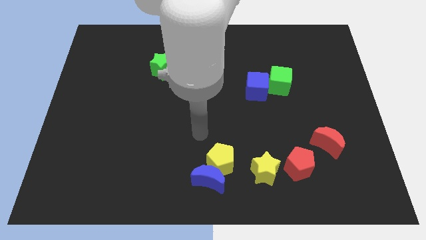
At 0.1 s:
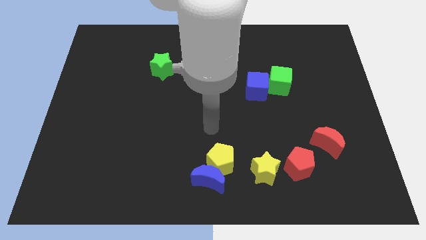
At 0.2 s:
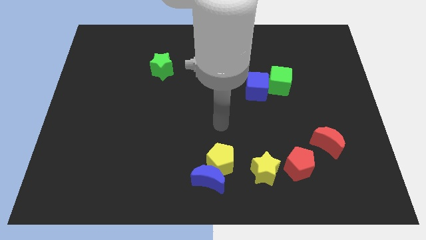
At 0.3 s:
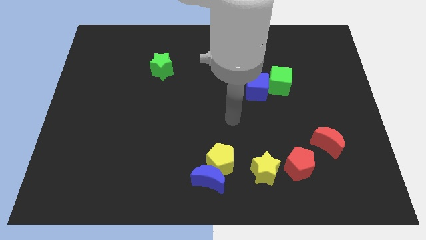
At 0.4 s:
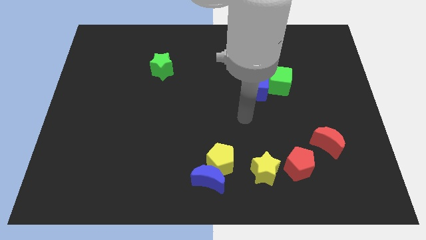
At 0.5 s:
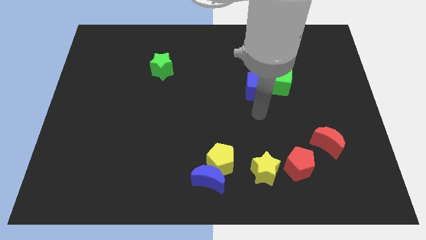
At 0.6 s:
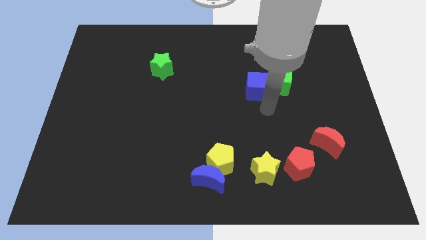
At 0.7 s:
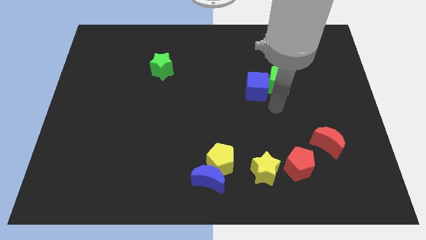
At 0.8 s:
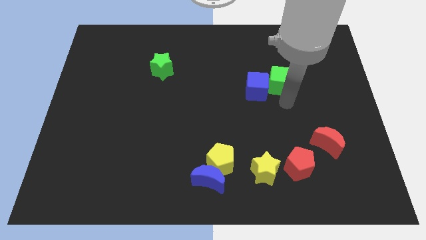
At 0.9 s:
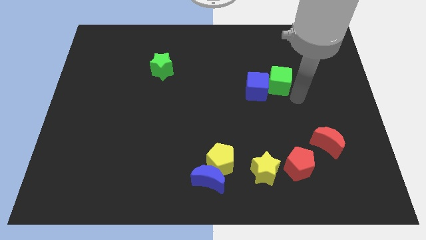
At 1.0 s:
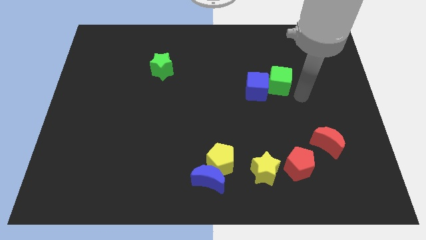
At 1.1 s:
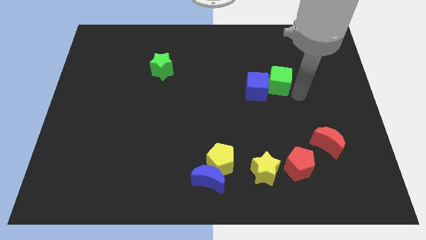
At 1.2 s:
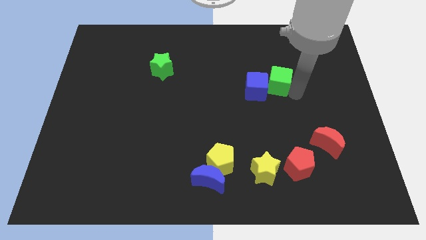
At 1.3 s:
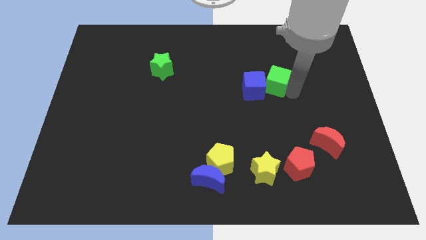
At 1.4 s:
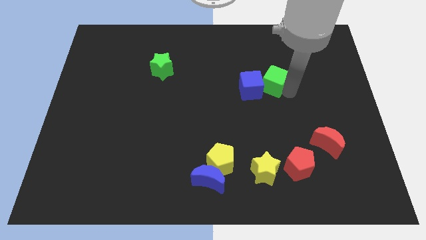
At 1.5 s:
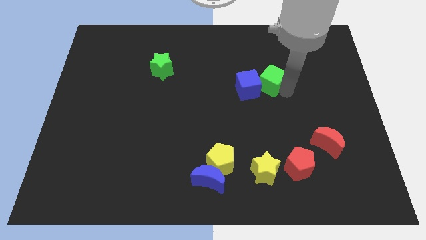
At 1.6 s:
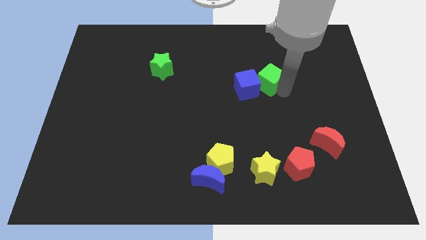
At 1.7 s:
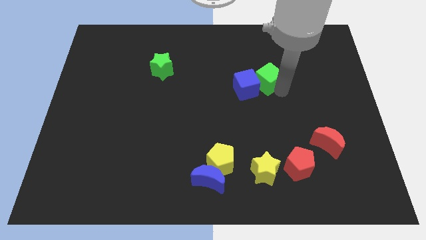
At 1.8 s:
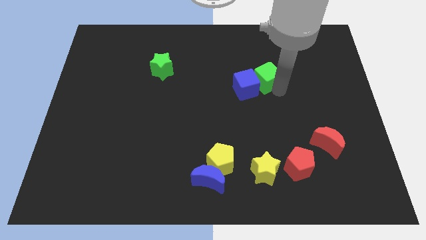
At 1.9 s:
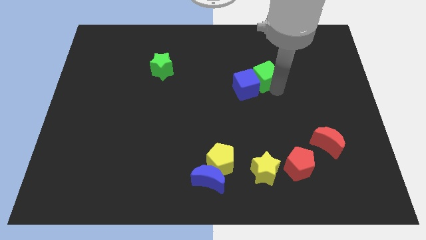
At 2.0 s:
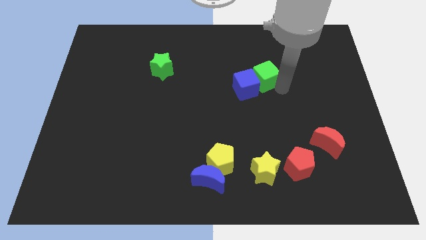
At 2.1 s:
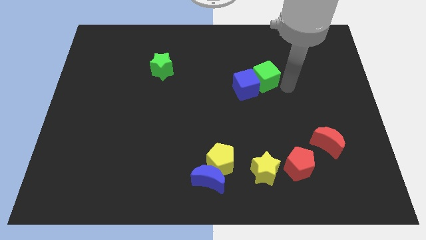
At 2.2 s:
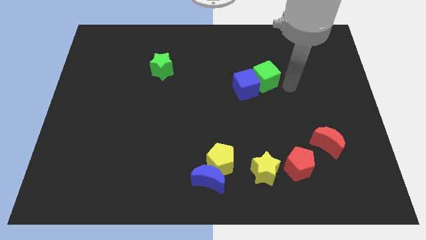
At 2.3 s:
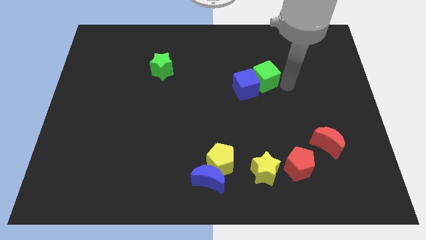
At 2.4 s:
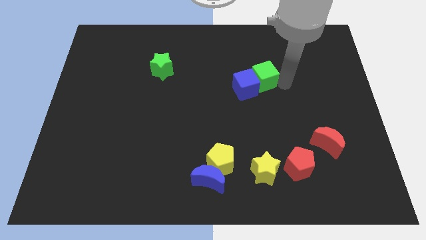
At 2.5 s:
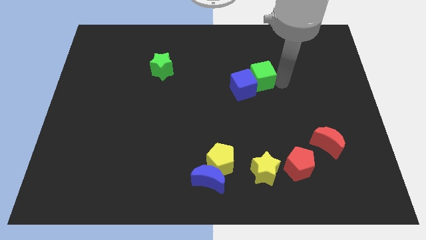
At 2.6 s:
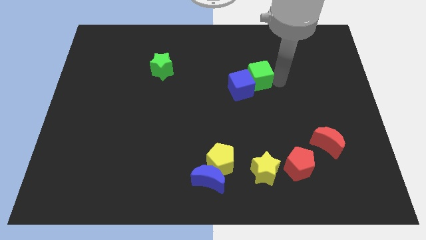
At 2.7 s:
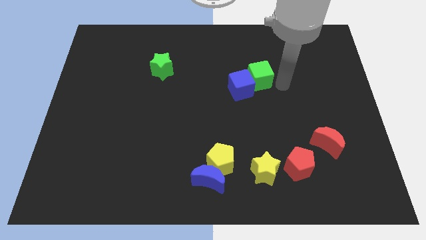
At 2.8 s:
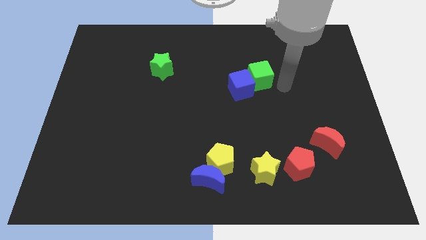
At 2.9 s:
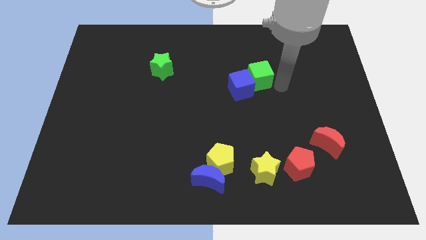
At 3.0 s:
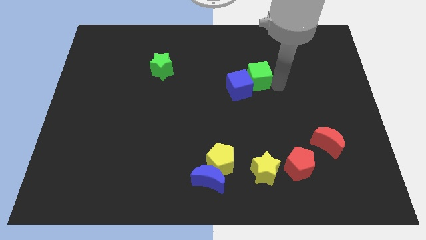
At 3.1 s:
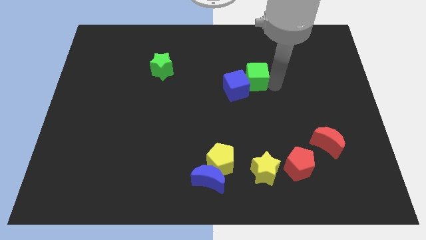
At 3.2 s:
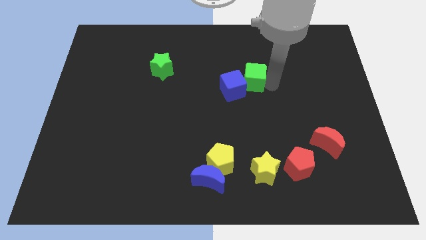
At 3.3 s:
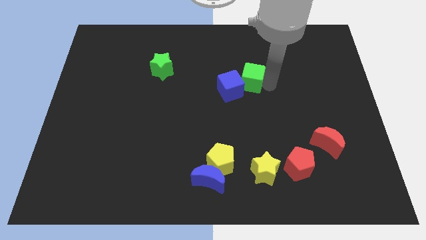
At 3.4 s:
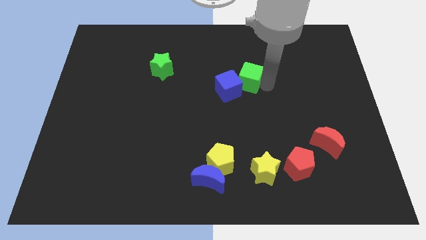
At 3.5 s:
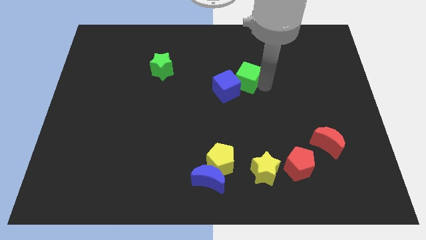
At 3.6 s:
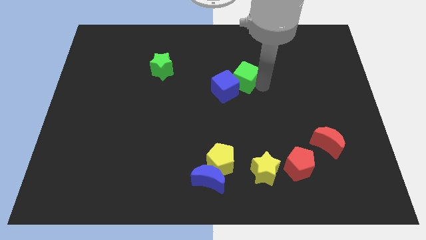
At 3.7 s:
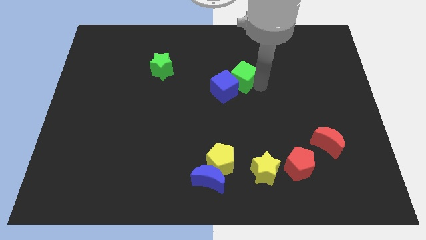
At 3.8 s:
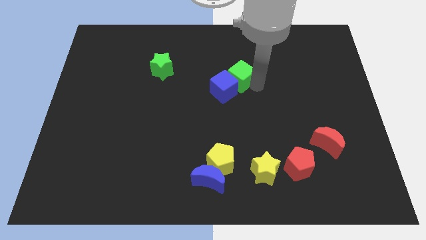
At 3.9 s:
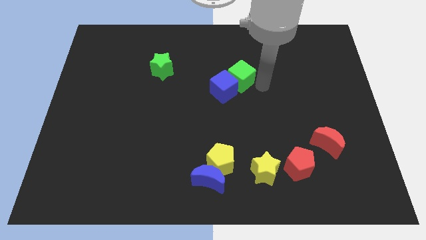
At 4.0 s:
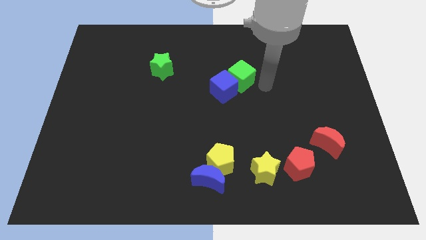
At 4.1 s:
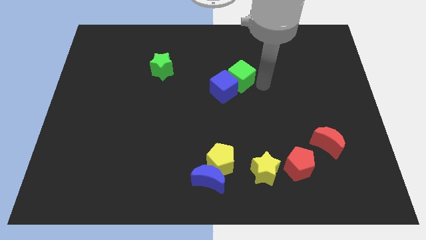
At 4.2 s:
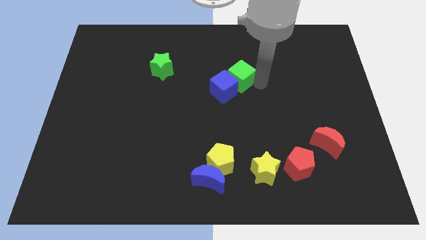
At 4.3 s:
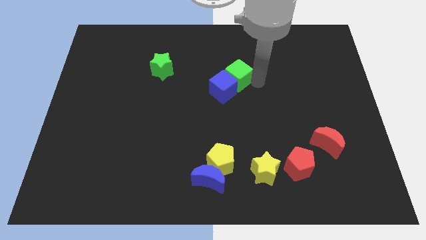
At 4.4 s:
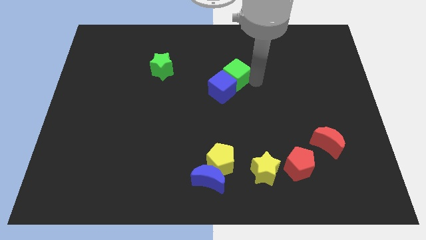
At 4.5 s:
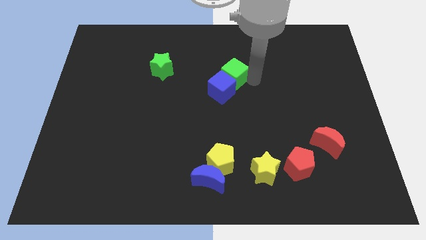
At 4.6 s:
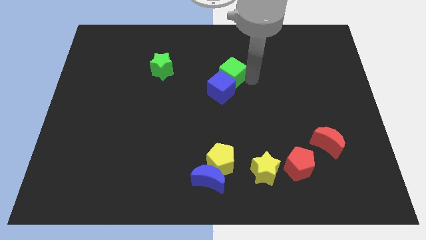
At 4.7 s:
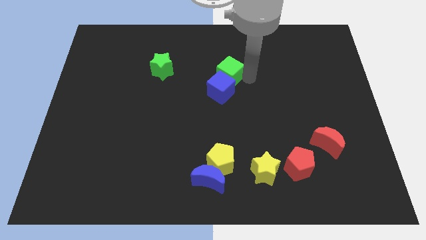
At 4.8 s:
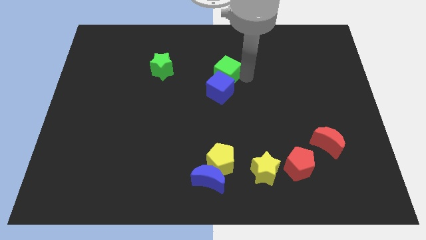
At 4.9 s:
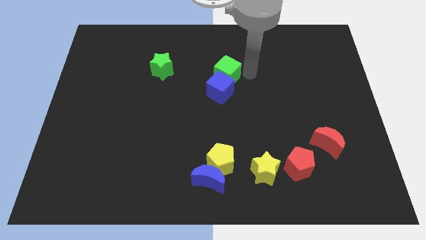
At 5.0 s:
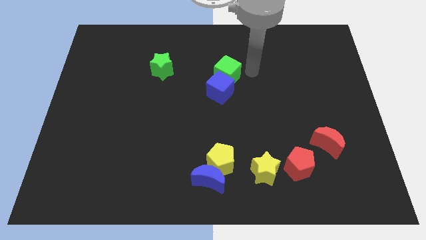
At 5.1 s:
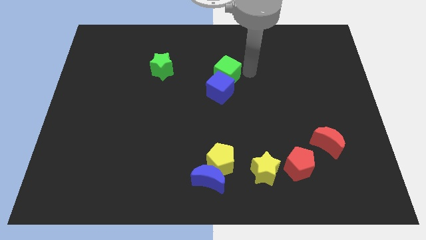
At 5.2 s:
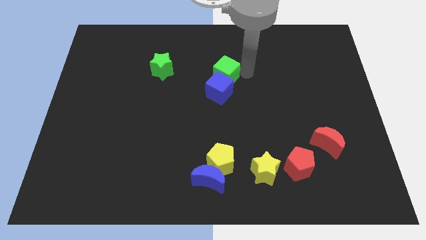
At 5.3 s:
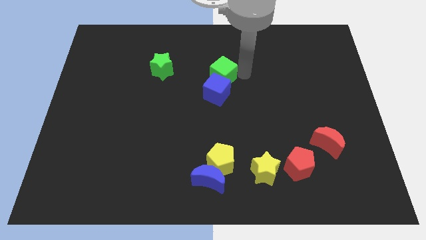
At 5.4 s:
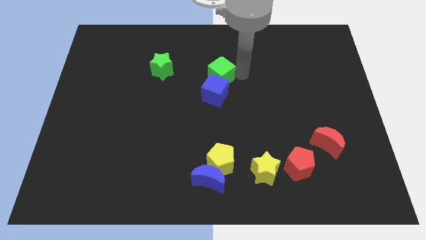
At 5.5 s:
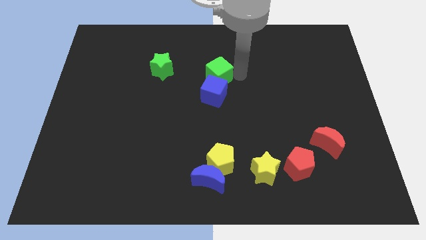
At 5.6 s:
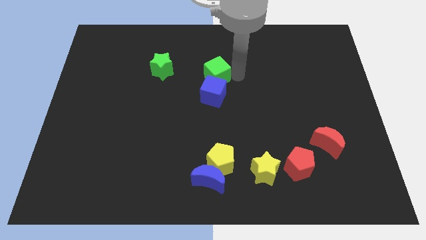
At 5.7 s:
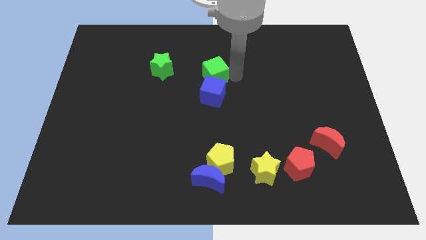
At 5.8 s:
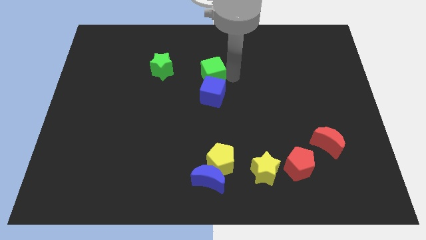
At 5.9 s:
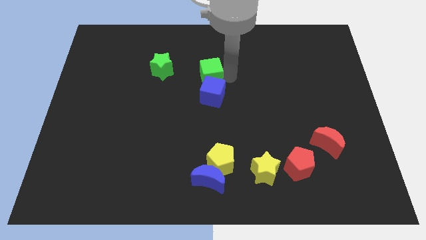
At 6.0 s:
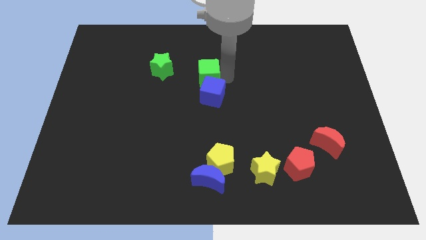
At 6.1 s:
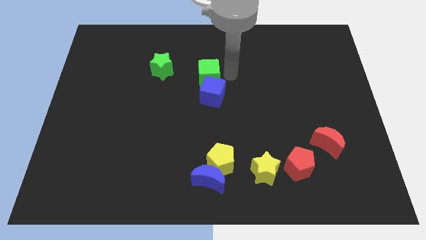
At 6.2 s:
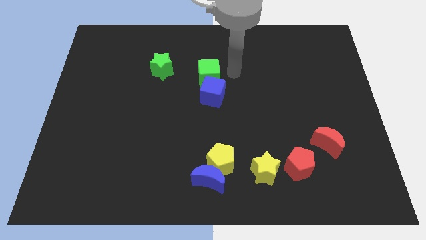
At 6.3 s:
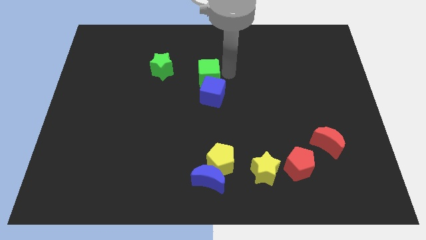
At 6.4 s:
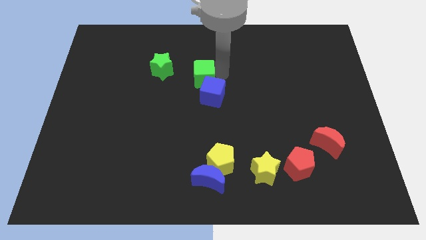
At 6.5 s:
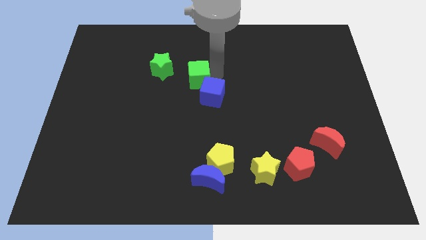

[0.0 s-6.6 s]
move the green cube to the left

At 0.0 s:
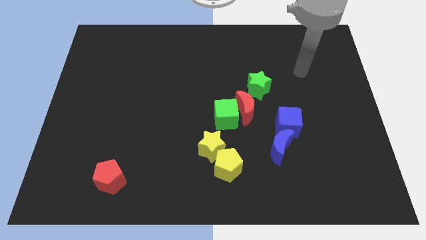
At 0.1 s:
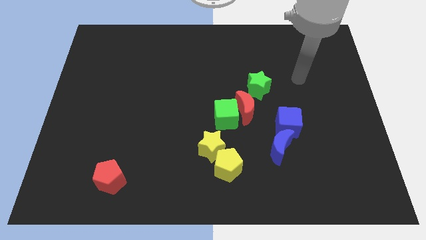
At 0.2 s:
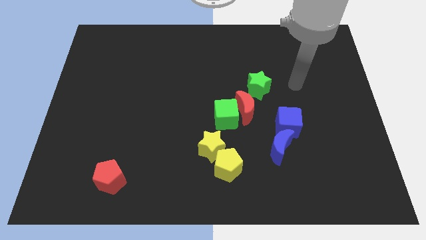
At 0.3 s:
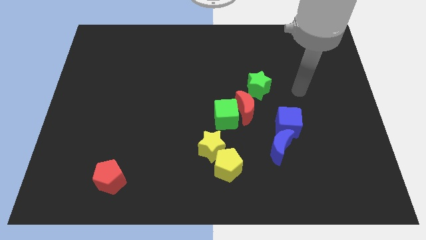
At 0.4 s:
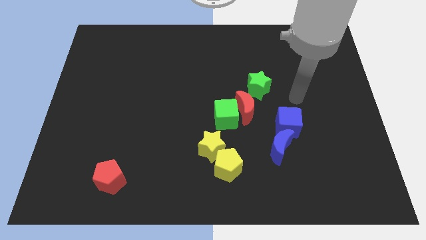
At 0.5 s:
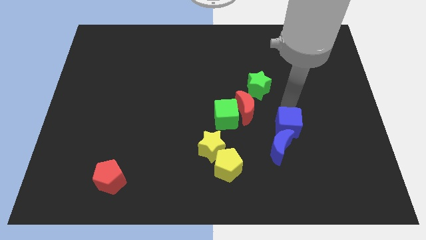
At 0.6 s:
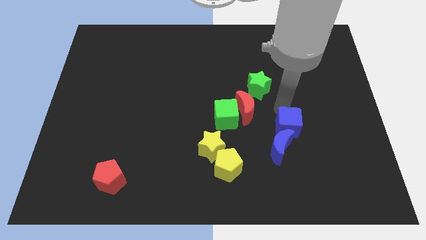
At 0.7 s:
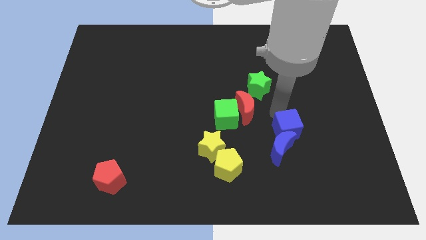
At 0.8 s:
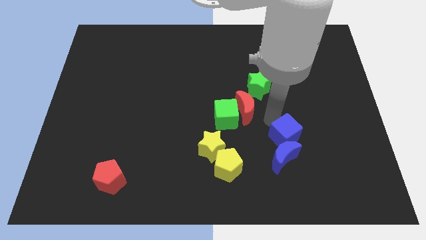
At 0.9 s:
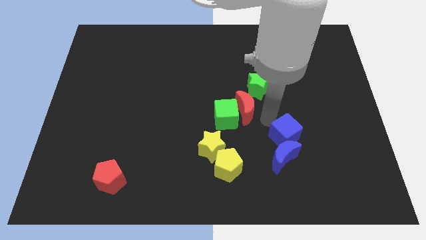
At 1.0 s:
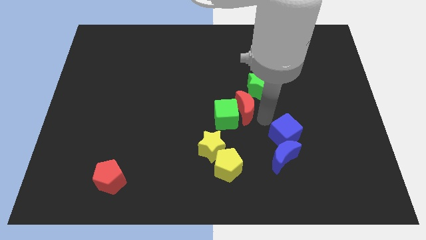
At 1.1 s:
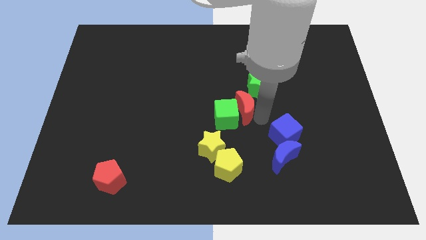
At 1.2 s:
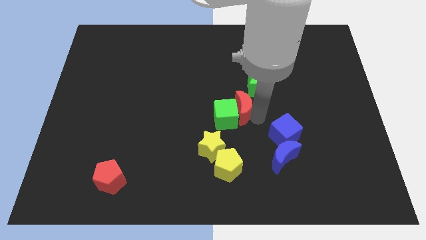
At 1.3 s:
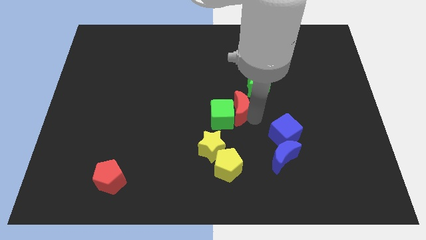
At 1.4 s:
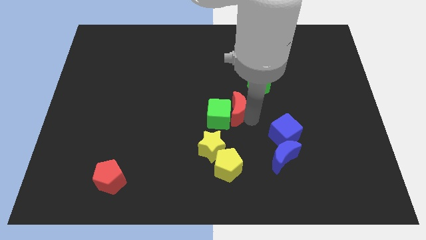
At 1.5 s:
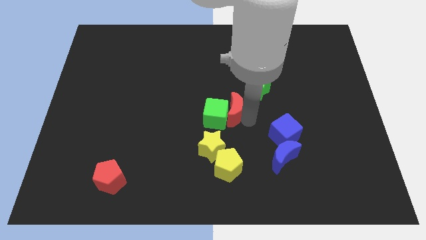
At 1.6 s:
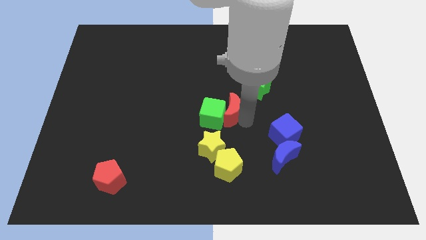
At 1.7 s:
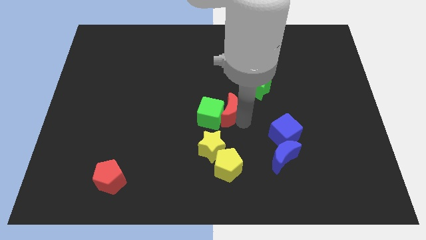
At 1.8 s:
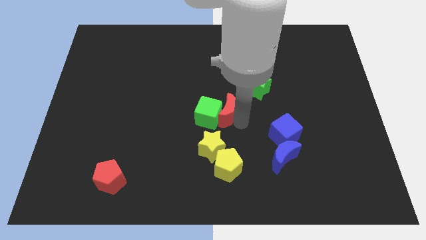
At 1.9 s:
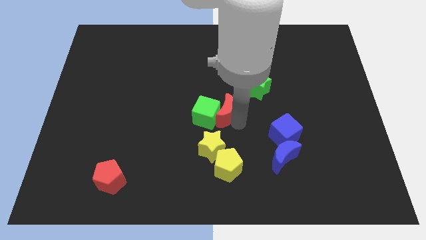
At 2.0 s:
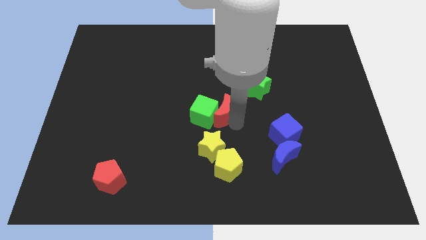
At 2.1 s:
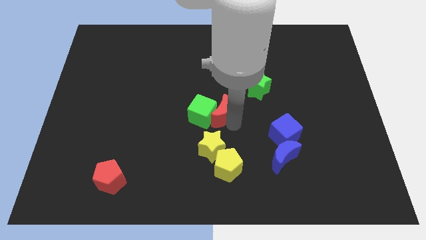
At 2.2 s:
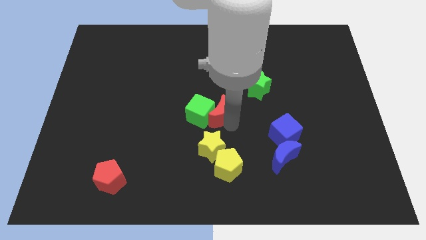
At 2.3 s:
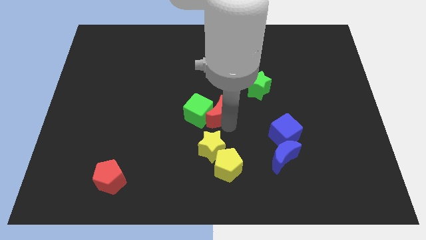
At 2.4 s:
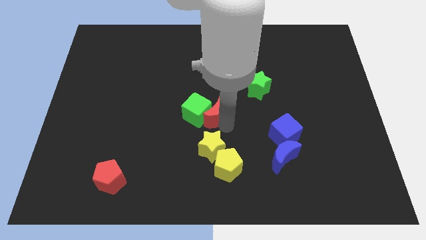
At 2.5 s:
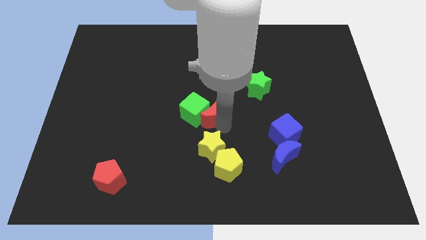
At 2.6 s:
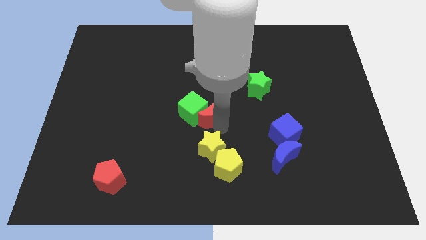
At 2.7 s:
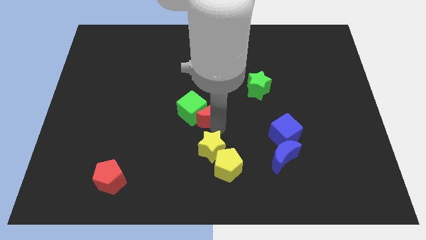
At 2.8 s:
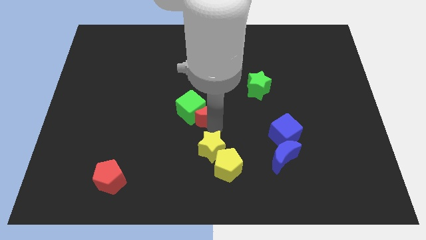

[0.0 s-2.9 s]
push the red moon downwards and then to the left slightly
